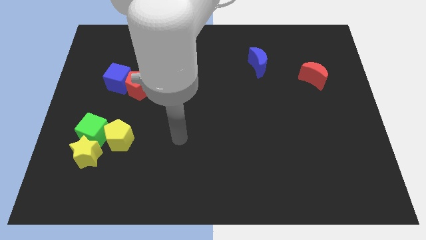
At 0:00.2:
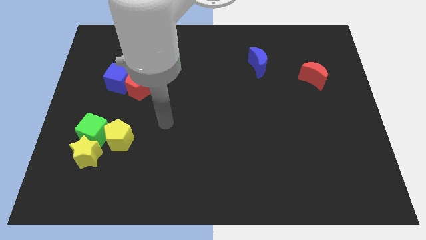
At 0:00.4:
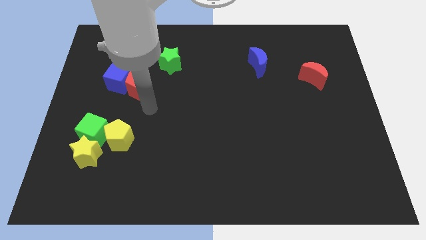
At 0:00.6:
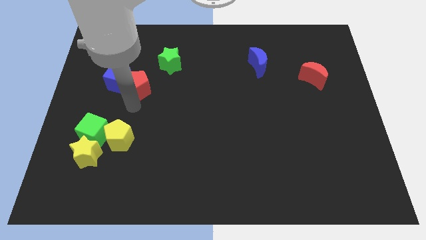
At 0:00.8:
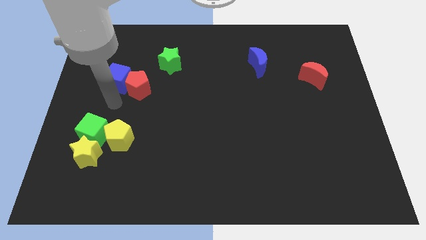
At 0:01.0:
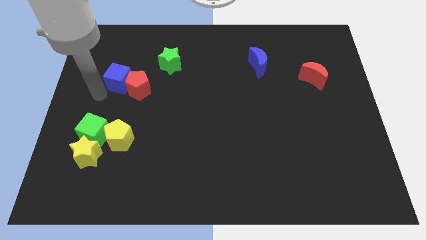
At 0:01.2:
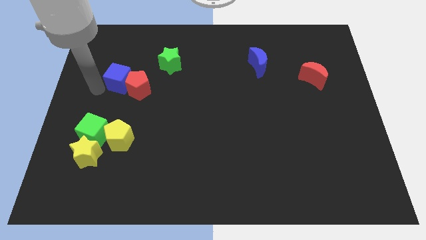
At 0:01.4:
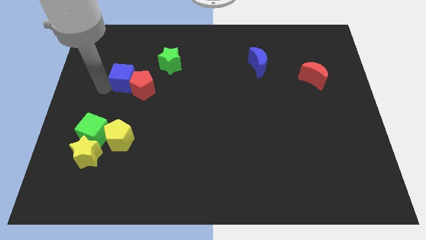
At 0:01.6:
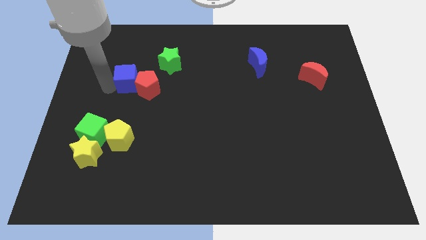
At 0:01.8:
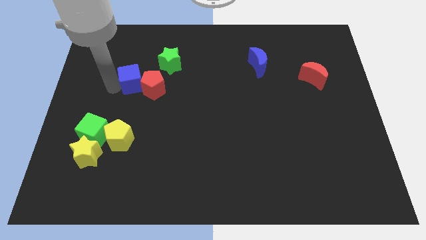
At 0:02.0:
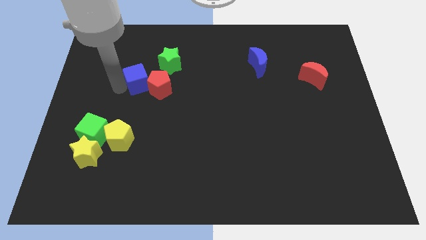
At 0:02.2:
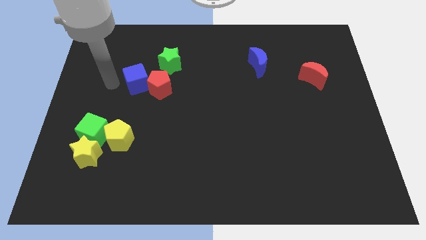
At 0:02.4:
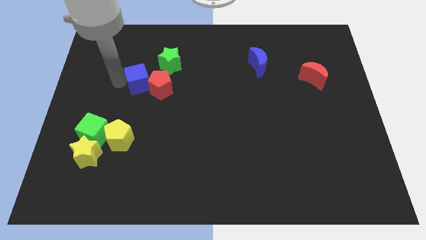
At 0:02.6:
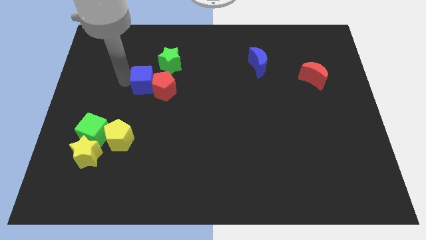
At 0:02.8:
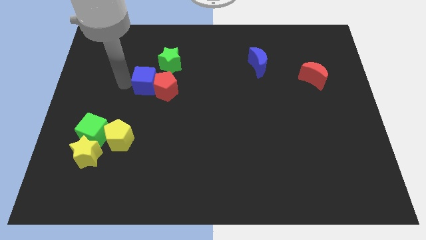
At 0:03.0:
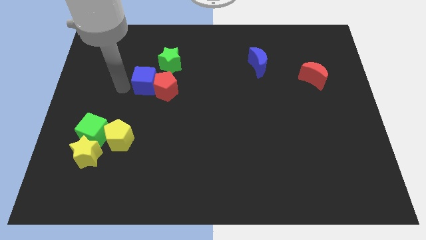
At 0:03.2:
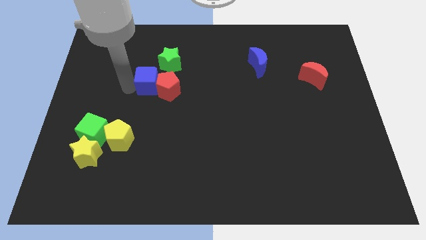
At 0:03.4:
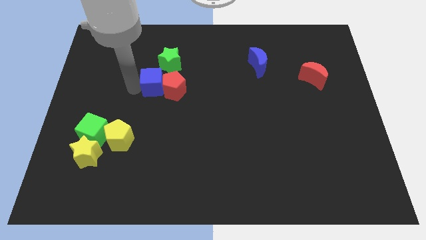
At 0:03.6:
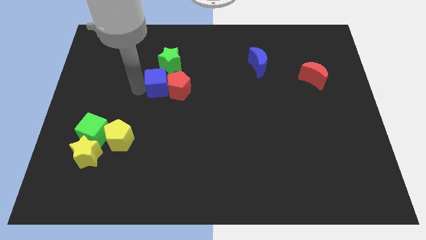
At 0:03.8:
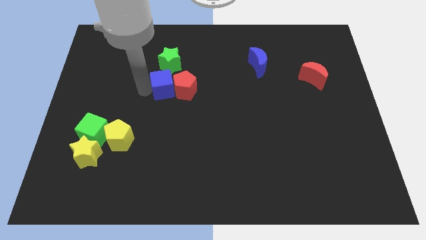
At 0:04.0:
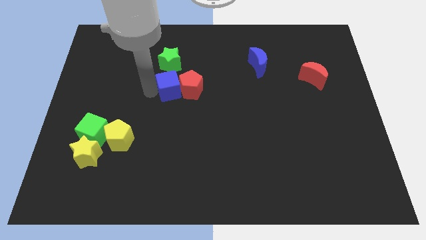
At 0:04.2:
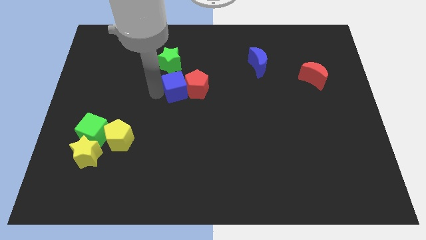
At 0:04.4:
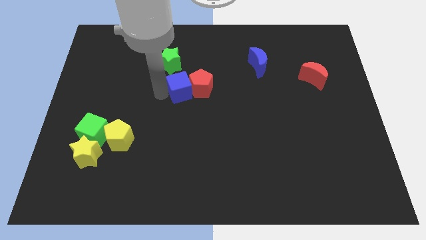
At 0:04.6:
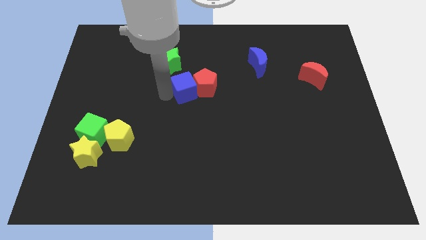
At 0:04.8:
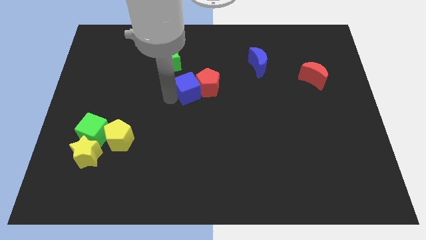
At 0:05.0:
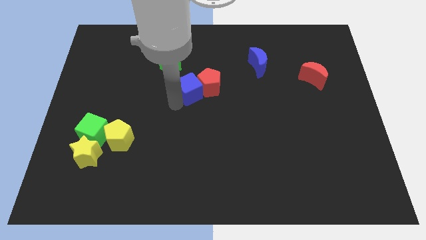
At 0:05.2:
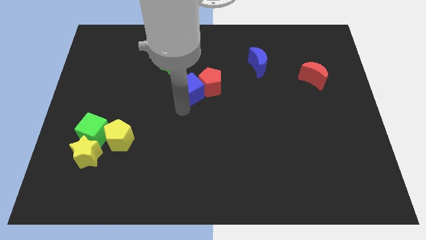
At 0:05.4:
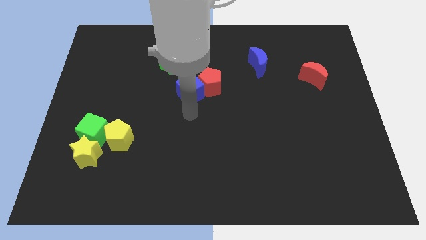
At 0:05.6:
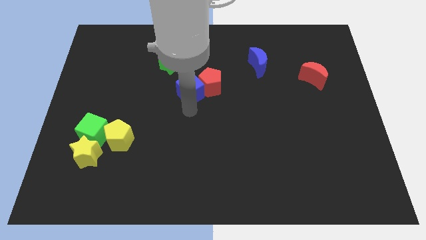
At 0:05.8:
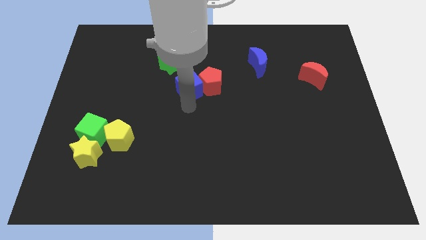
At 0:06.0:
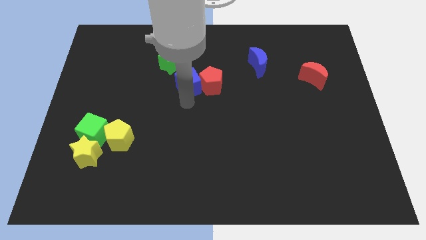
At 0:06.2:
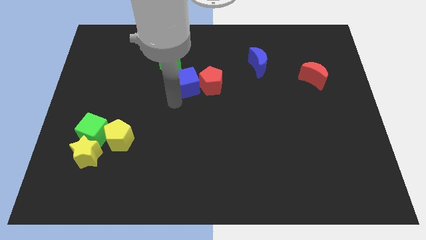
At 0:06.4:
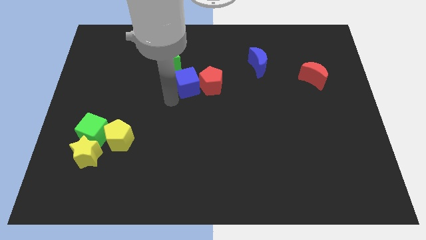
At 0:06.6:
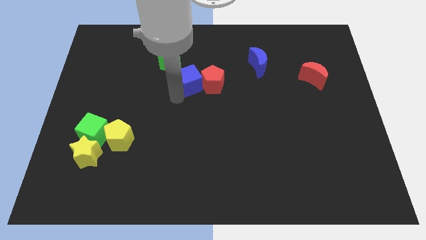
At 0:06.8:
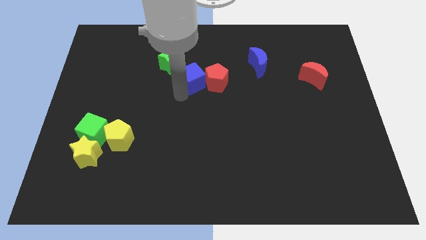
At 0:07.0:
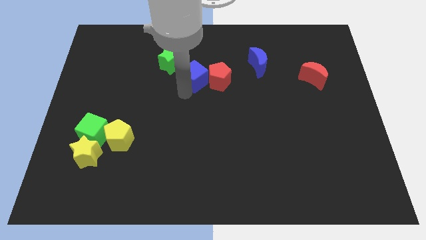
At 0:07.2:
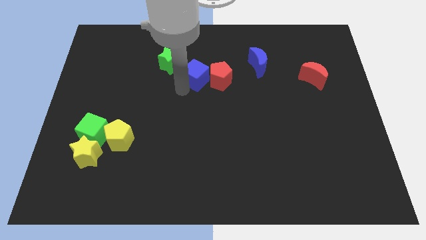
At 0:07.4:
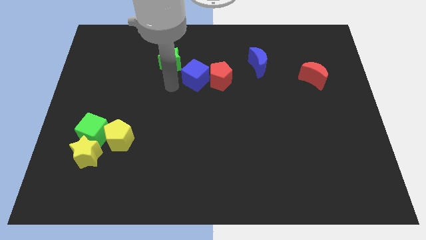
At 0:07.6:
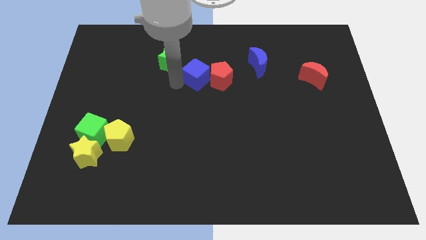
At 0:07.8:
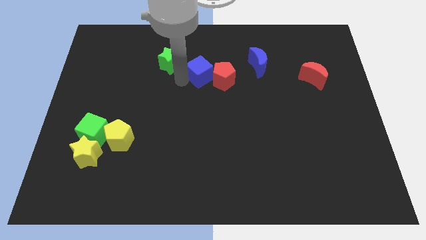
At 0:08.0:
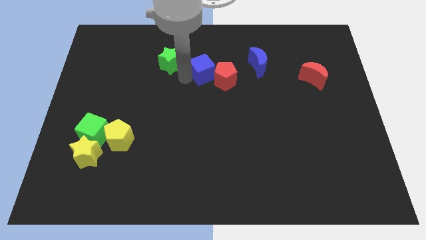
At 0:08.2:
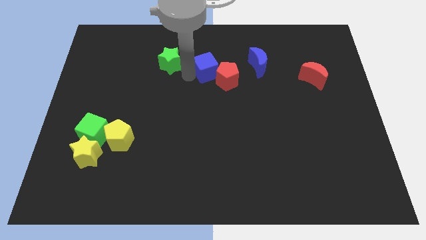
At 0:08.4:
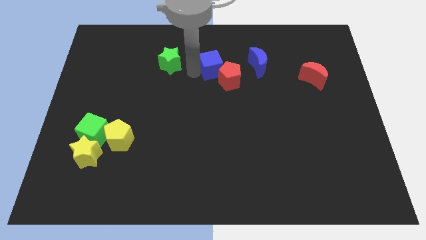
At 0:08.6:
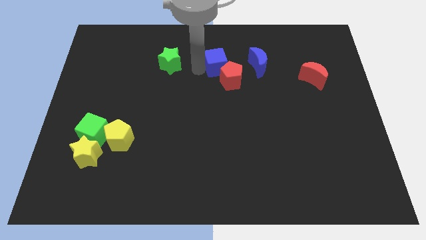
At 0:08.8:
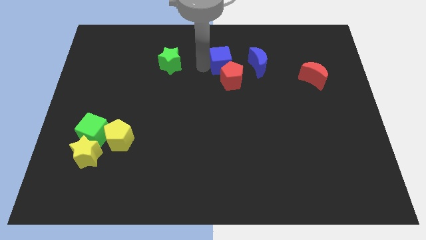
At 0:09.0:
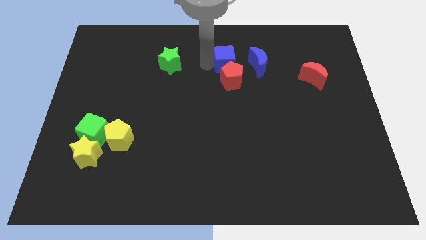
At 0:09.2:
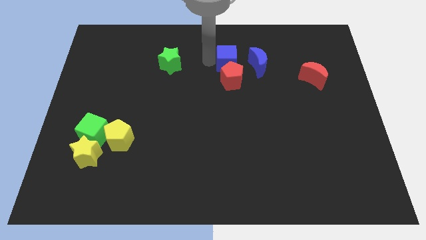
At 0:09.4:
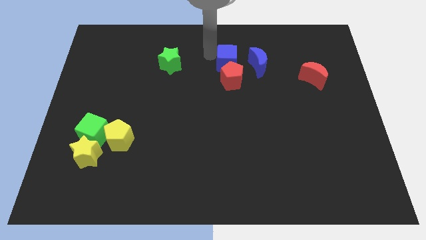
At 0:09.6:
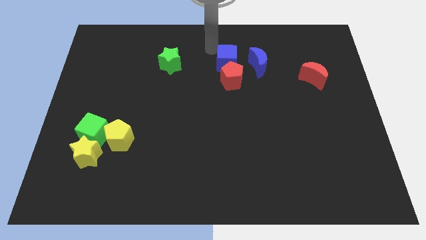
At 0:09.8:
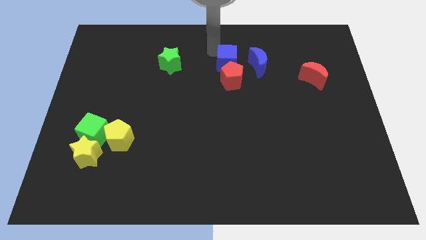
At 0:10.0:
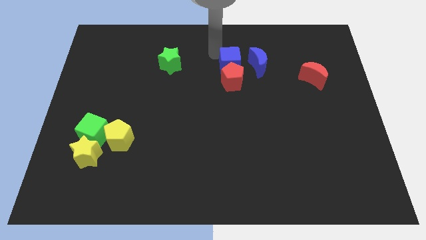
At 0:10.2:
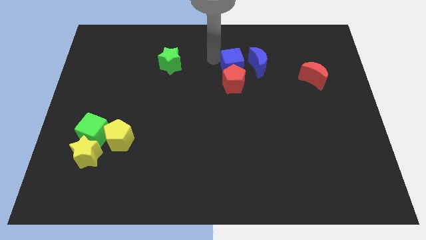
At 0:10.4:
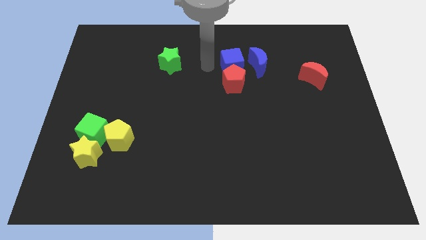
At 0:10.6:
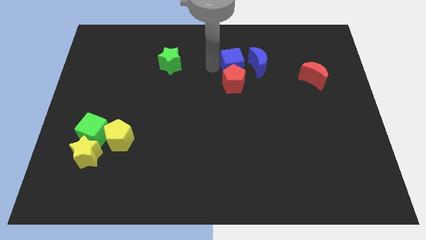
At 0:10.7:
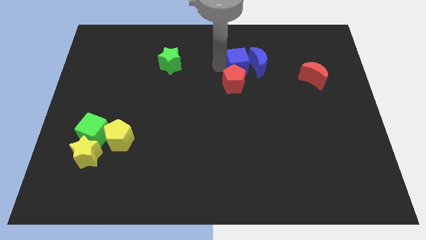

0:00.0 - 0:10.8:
push the blue cube to the blue moon

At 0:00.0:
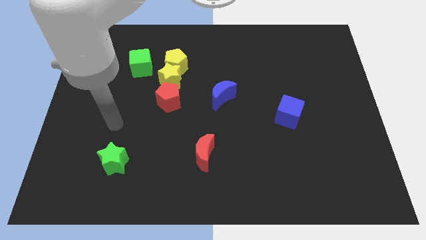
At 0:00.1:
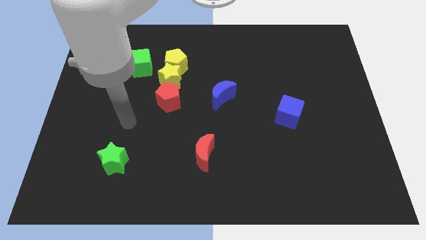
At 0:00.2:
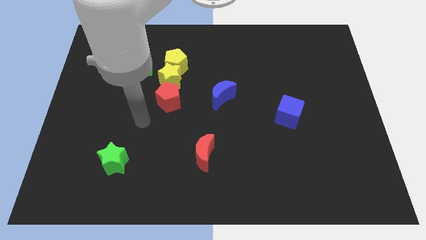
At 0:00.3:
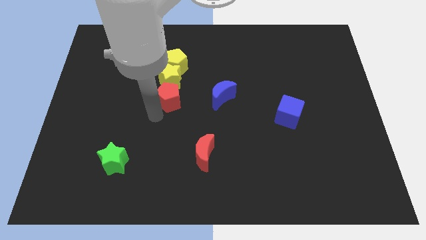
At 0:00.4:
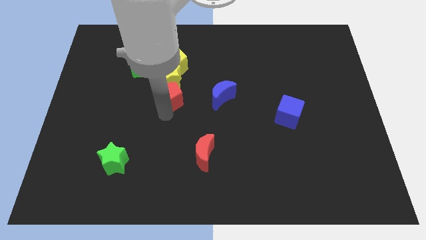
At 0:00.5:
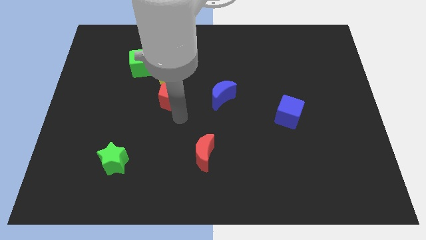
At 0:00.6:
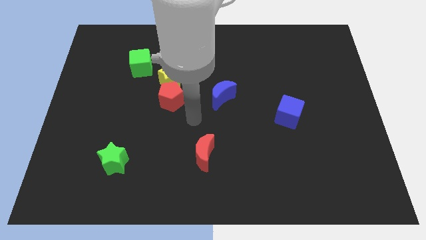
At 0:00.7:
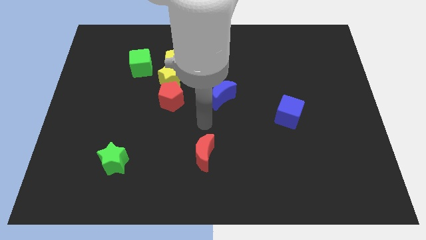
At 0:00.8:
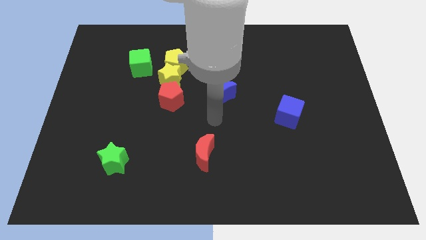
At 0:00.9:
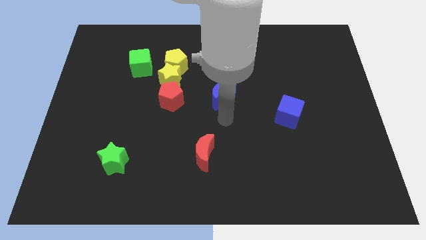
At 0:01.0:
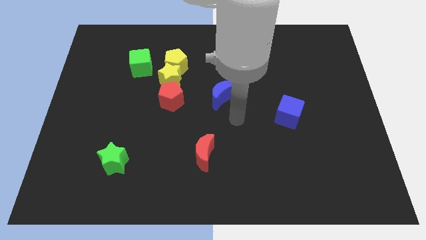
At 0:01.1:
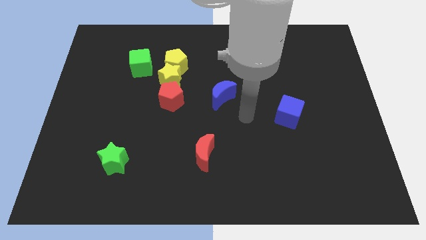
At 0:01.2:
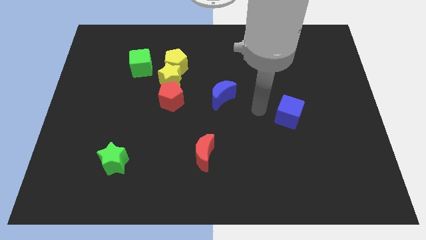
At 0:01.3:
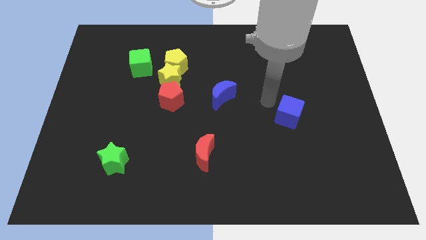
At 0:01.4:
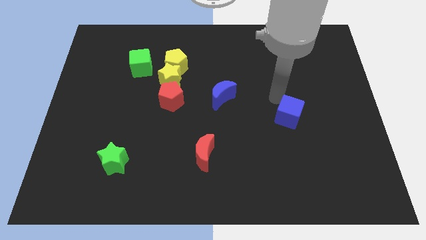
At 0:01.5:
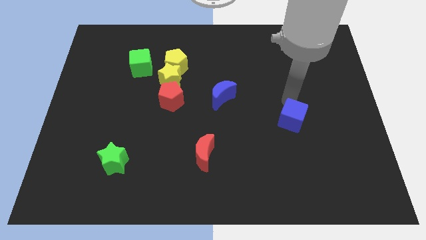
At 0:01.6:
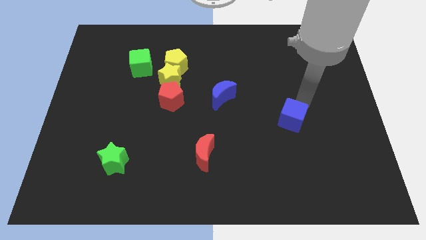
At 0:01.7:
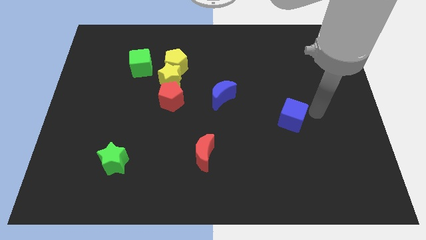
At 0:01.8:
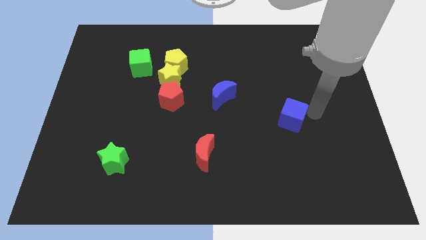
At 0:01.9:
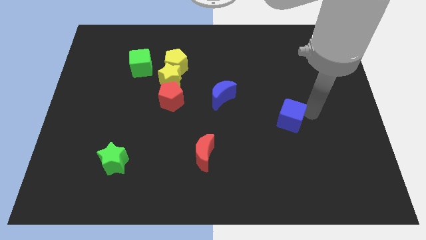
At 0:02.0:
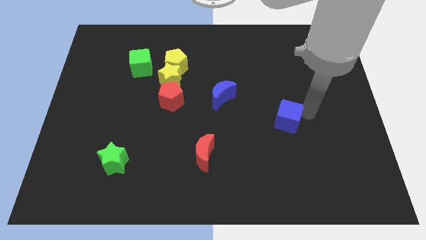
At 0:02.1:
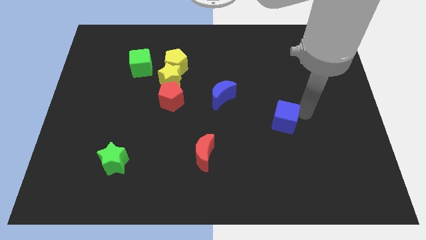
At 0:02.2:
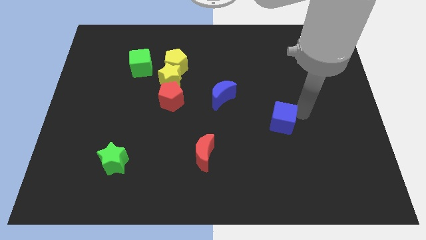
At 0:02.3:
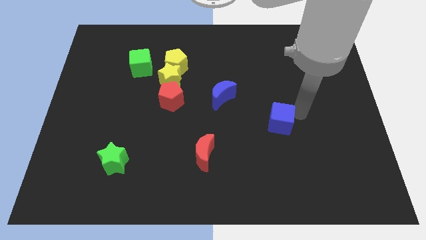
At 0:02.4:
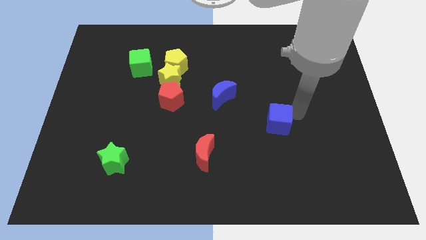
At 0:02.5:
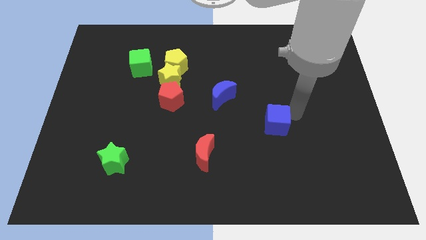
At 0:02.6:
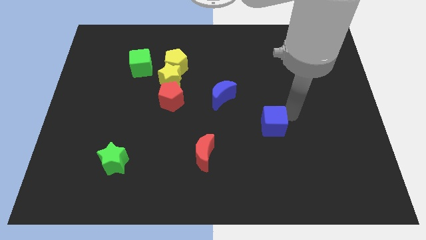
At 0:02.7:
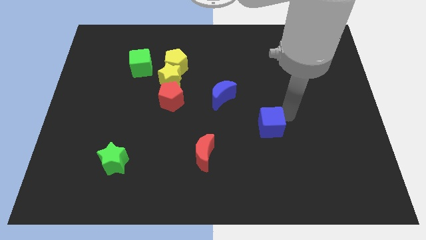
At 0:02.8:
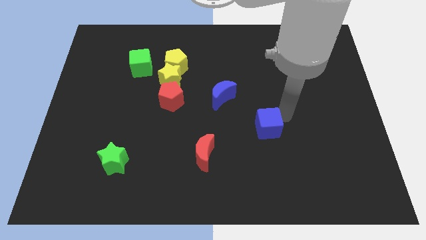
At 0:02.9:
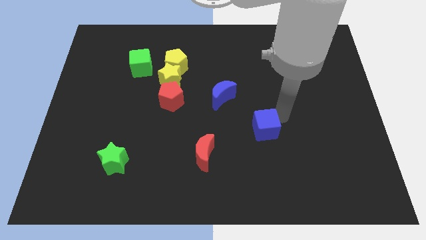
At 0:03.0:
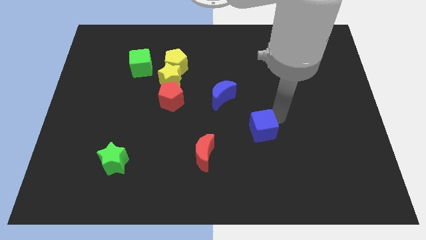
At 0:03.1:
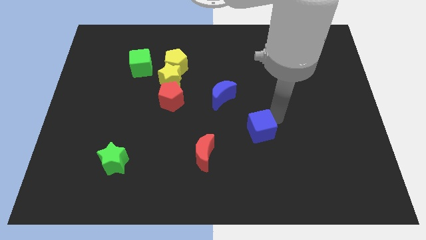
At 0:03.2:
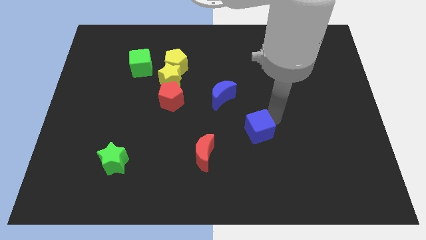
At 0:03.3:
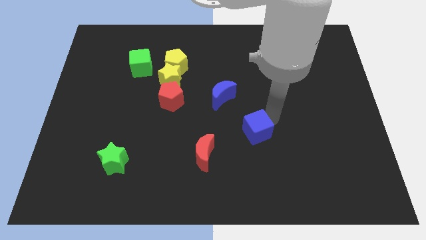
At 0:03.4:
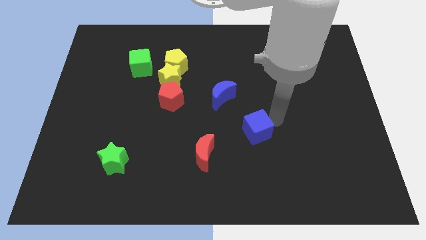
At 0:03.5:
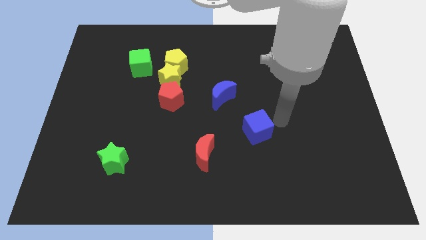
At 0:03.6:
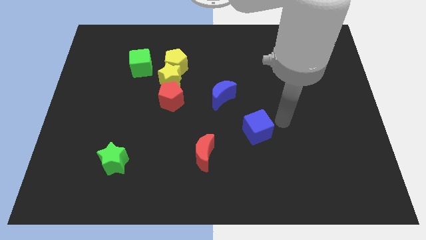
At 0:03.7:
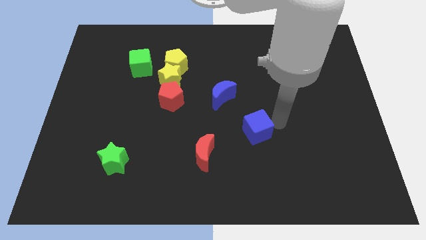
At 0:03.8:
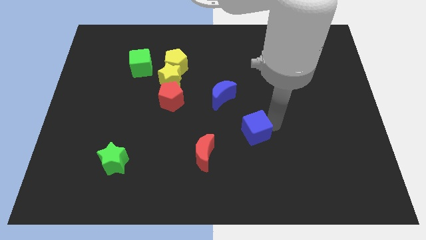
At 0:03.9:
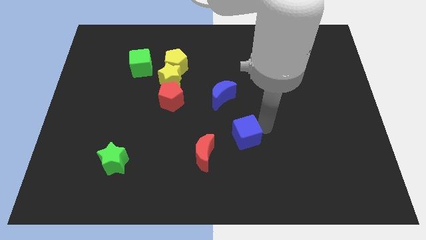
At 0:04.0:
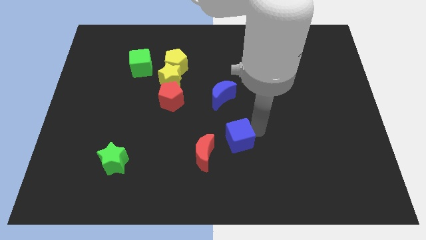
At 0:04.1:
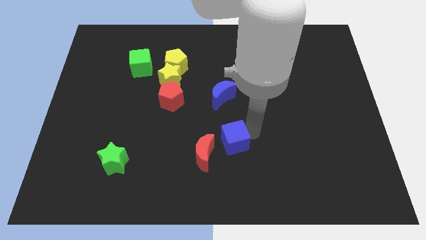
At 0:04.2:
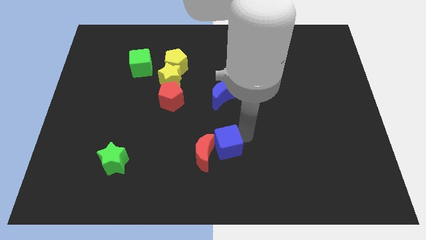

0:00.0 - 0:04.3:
put the blue cube close to the red moon
